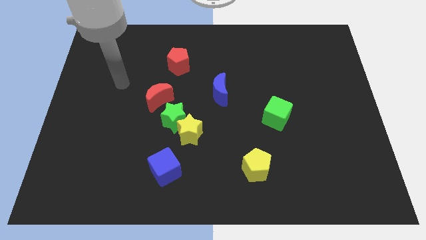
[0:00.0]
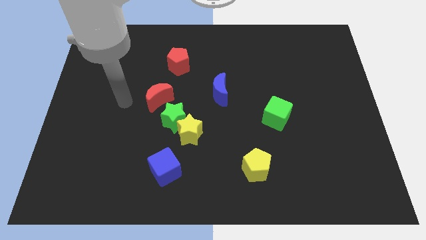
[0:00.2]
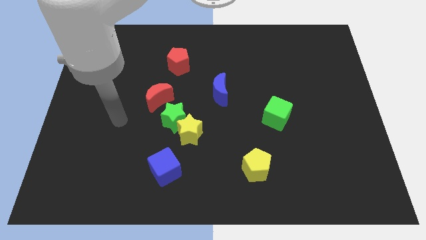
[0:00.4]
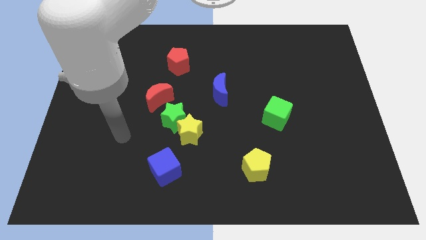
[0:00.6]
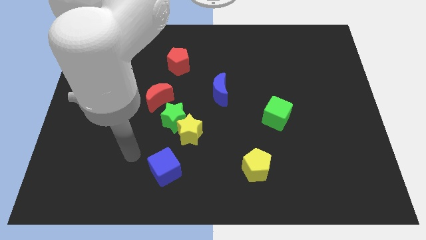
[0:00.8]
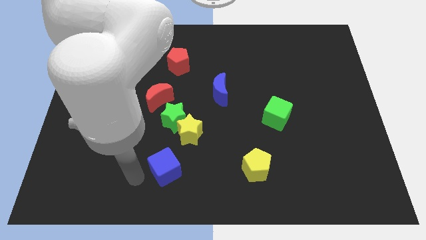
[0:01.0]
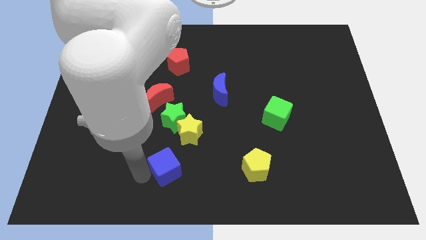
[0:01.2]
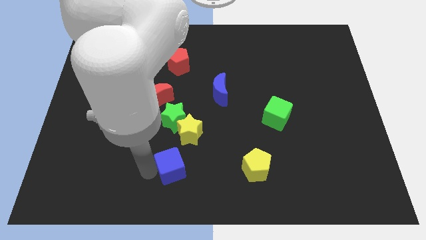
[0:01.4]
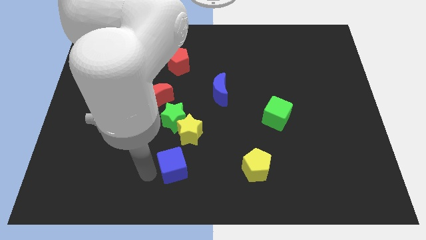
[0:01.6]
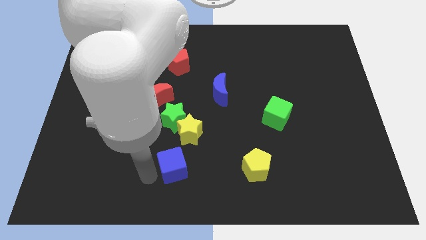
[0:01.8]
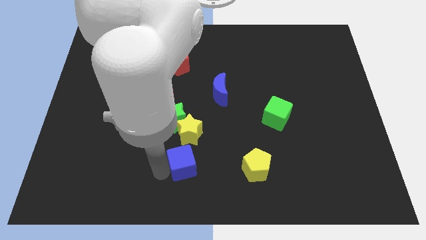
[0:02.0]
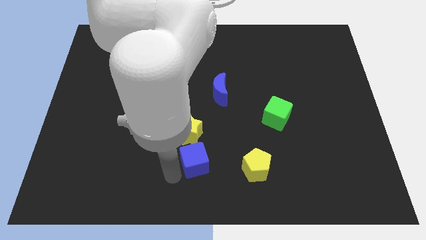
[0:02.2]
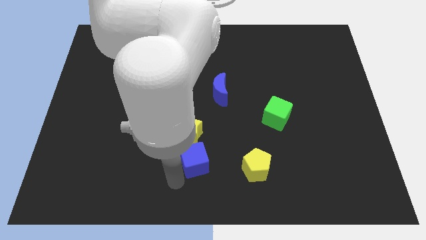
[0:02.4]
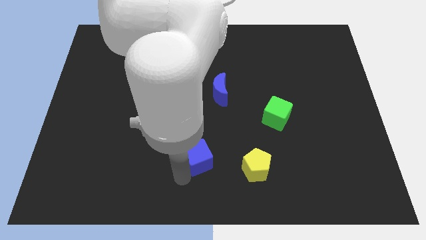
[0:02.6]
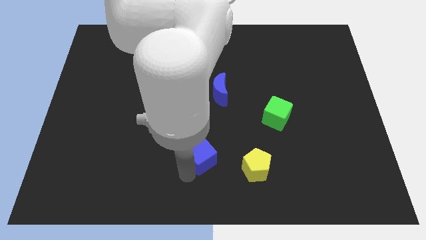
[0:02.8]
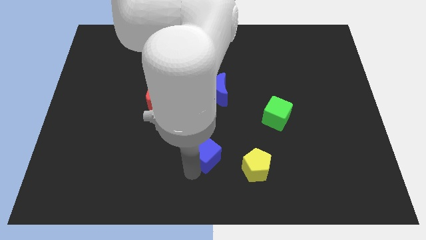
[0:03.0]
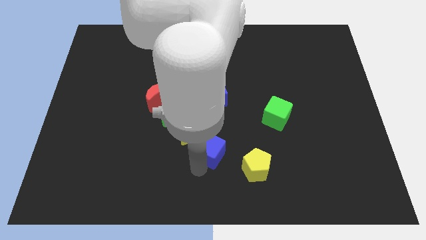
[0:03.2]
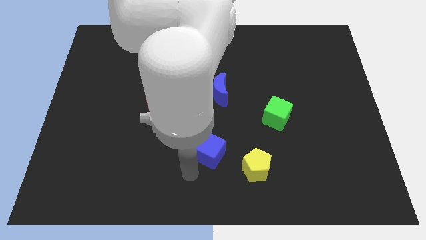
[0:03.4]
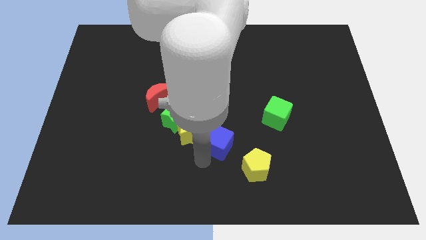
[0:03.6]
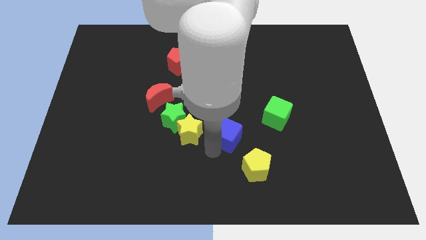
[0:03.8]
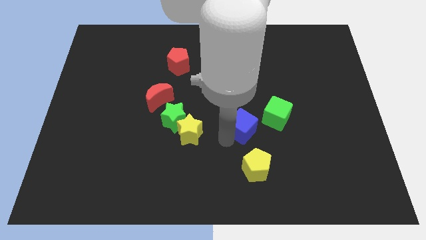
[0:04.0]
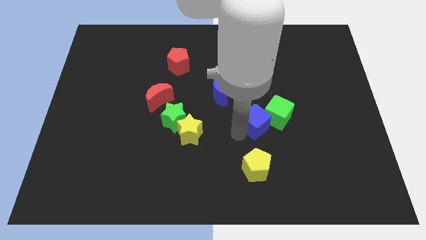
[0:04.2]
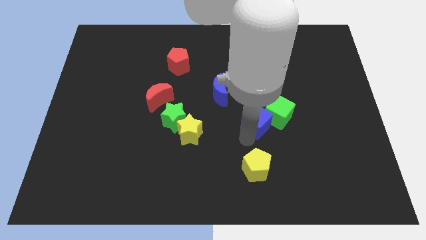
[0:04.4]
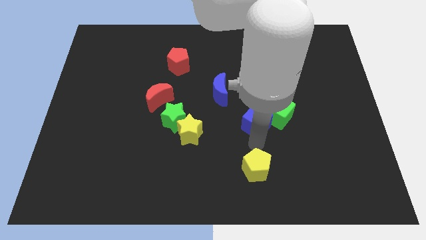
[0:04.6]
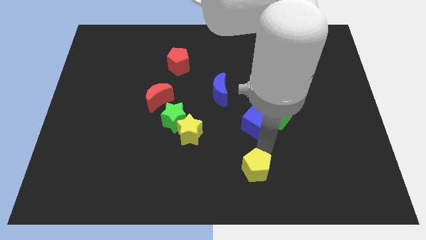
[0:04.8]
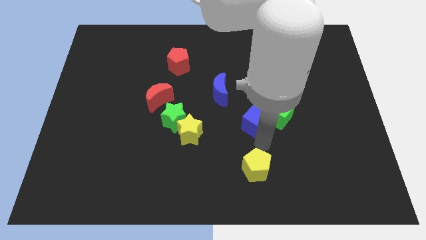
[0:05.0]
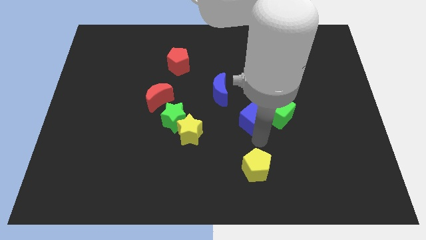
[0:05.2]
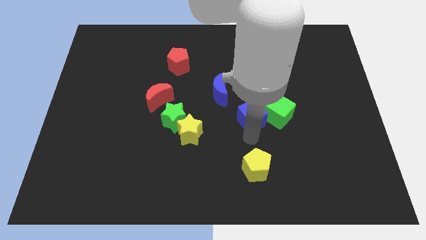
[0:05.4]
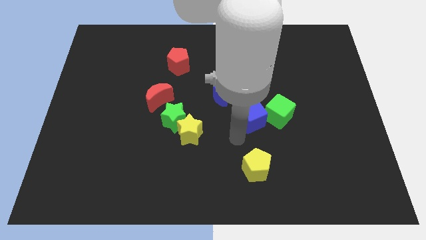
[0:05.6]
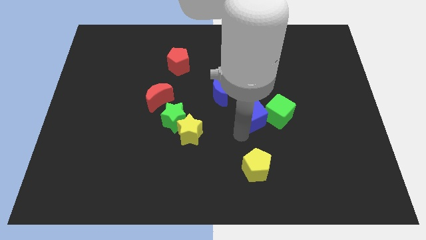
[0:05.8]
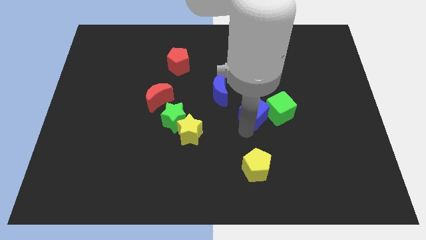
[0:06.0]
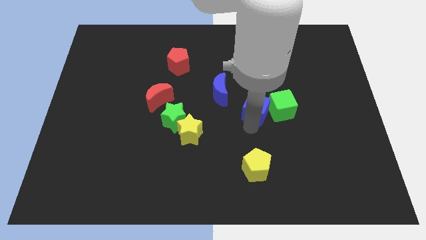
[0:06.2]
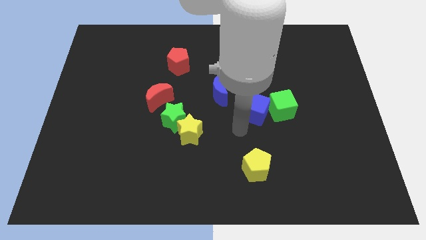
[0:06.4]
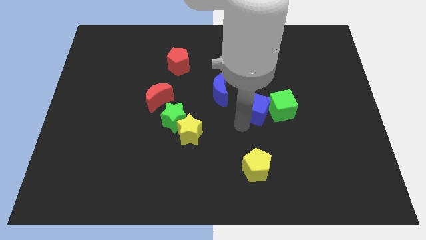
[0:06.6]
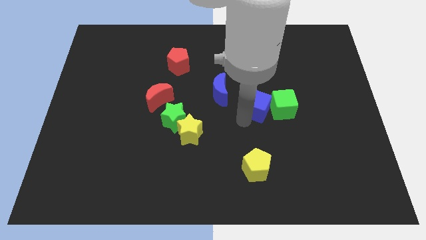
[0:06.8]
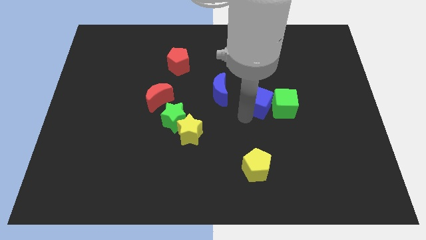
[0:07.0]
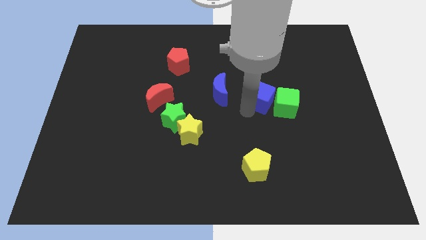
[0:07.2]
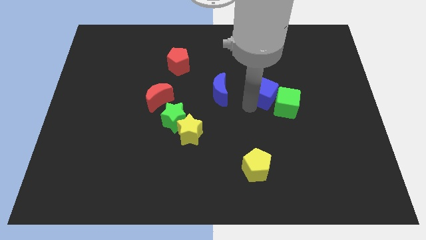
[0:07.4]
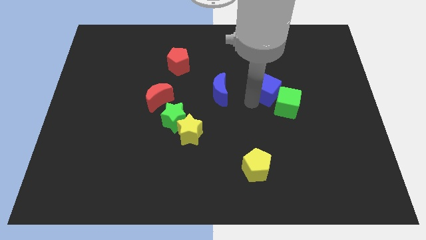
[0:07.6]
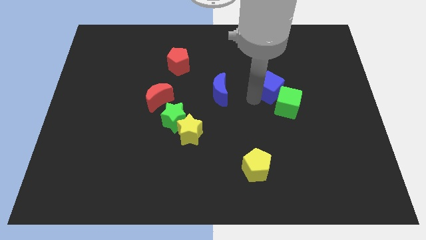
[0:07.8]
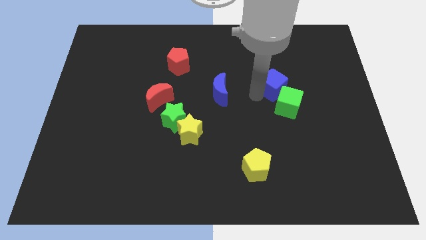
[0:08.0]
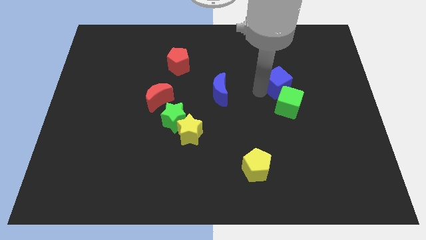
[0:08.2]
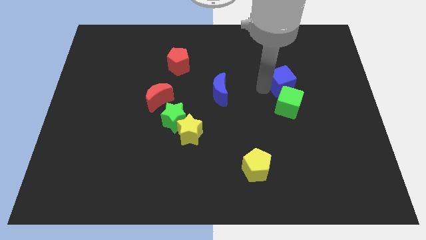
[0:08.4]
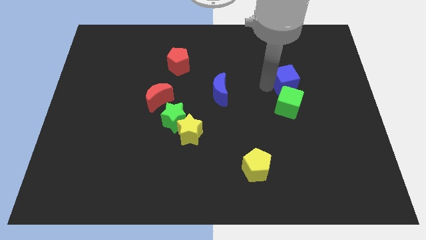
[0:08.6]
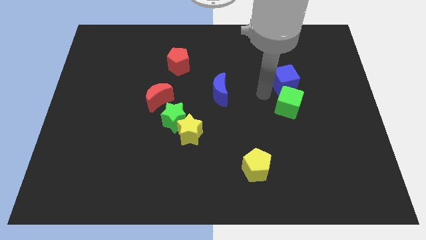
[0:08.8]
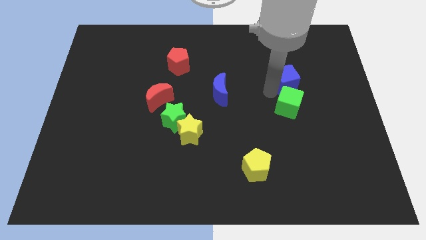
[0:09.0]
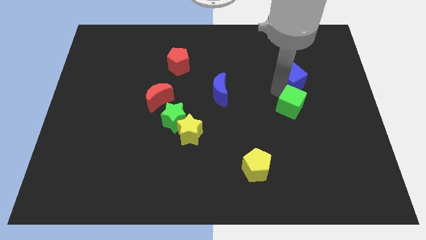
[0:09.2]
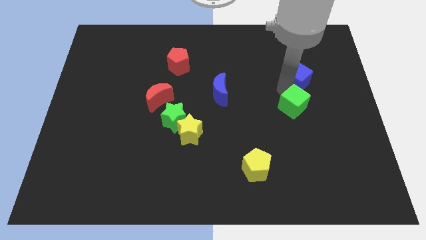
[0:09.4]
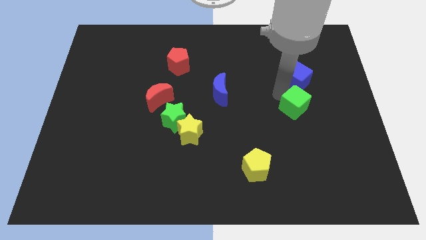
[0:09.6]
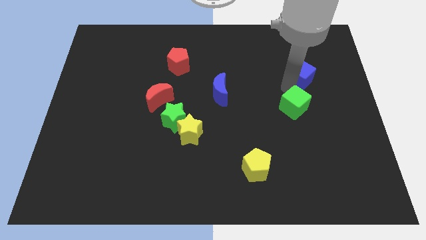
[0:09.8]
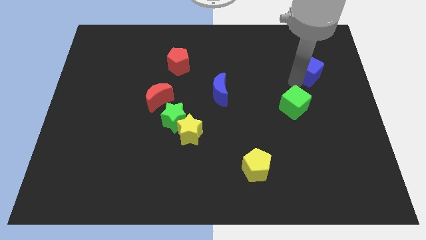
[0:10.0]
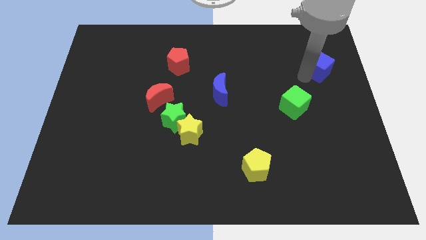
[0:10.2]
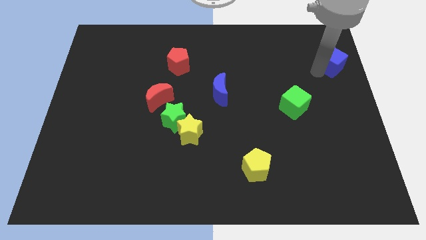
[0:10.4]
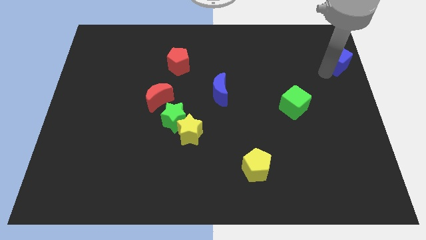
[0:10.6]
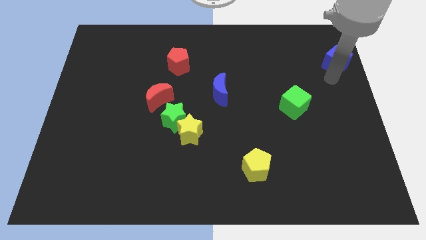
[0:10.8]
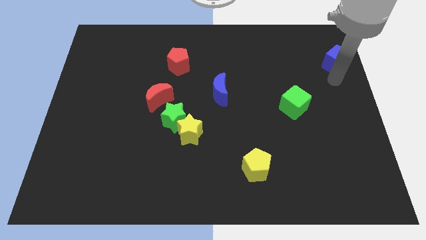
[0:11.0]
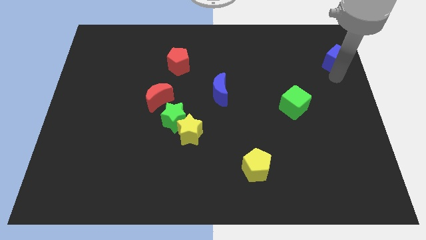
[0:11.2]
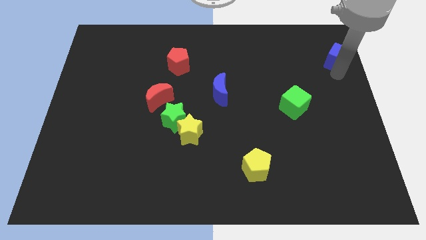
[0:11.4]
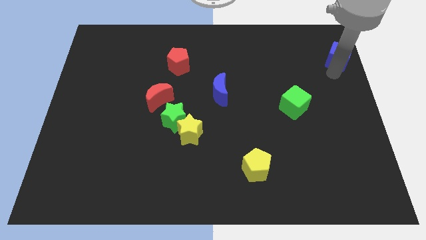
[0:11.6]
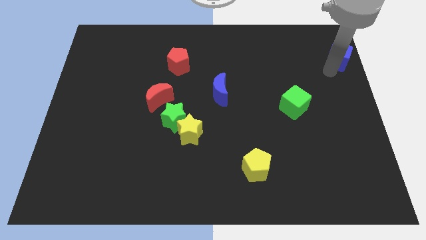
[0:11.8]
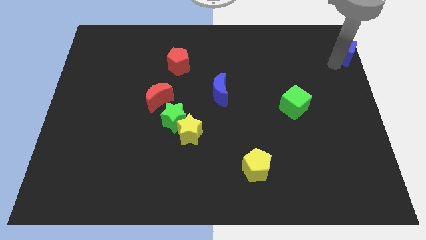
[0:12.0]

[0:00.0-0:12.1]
move the blue cube to the top right
